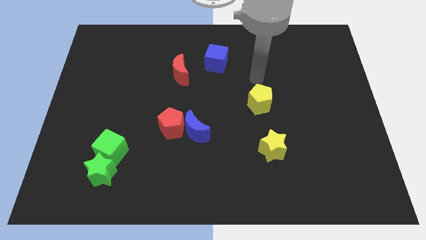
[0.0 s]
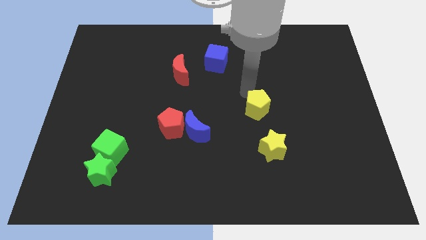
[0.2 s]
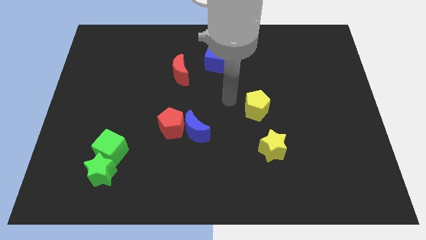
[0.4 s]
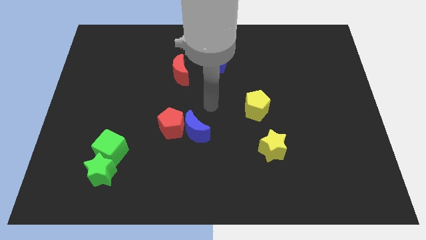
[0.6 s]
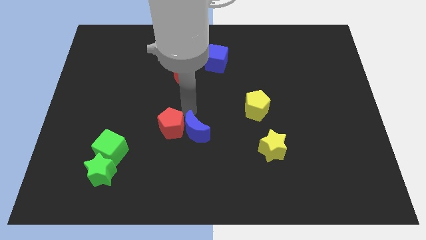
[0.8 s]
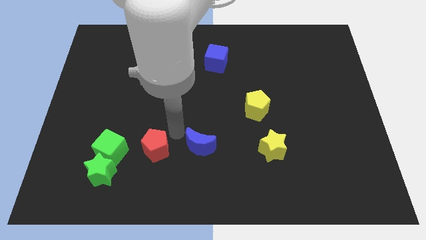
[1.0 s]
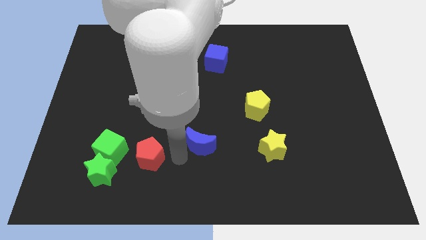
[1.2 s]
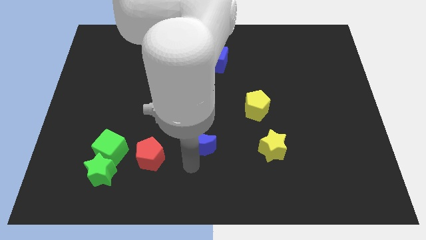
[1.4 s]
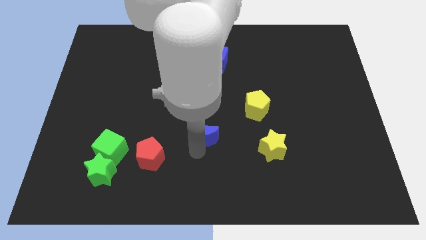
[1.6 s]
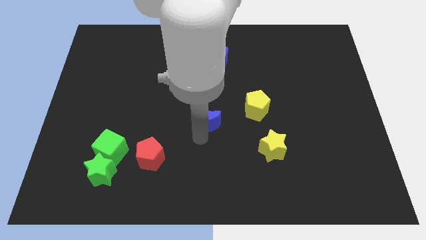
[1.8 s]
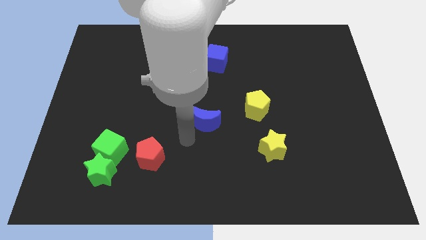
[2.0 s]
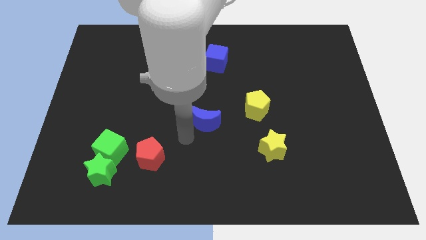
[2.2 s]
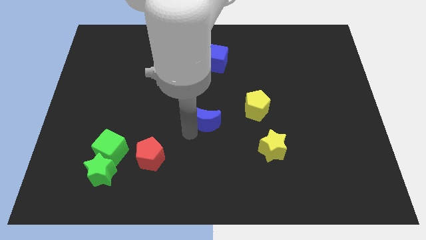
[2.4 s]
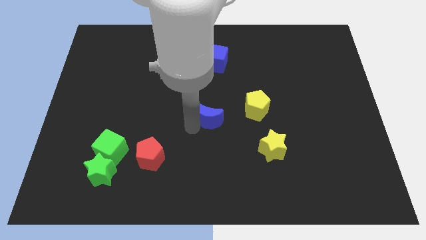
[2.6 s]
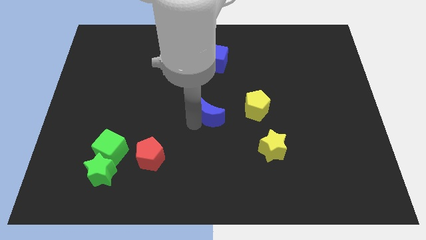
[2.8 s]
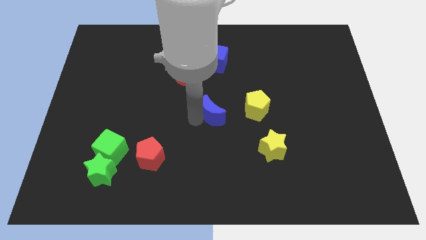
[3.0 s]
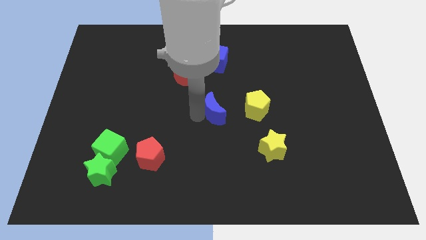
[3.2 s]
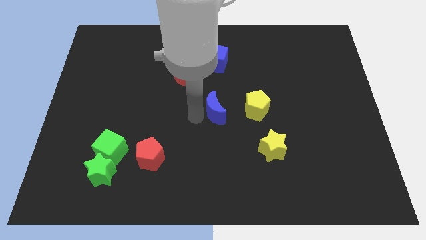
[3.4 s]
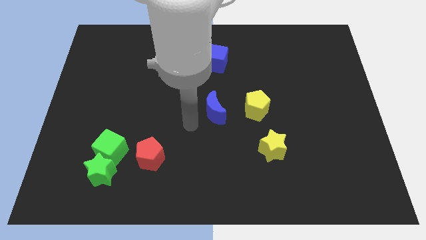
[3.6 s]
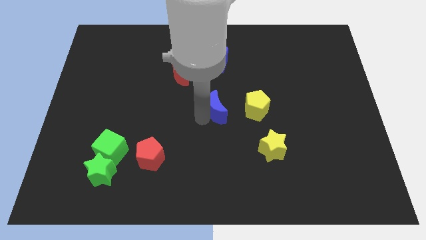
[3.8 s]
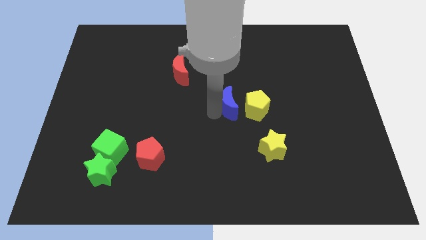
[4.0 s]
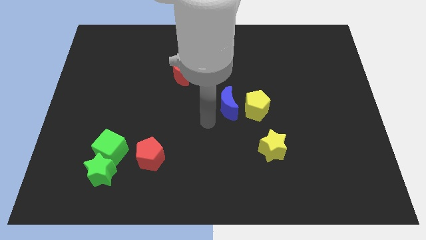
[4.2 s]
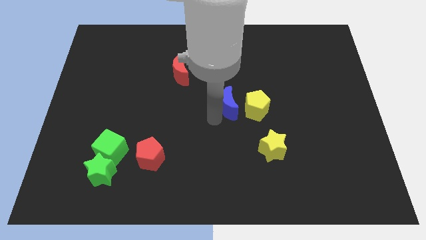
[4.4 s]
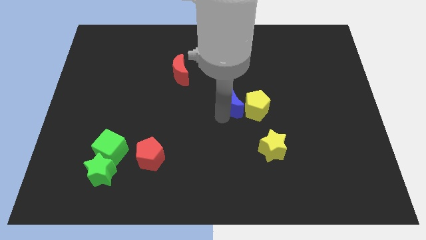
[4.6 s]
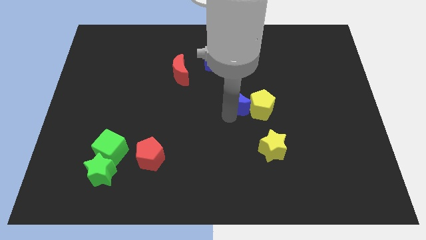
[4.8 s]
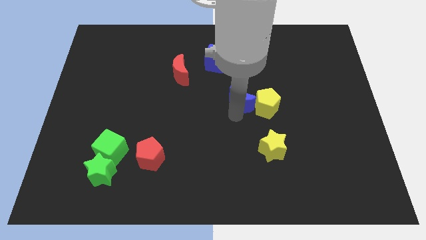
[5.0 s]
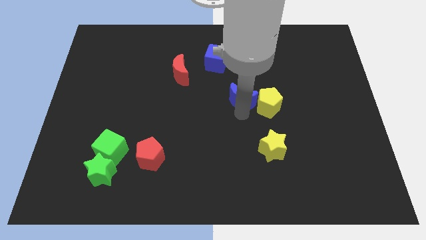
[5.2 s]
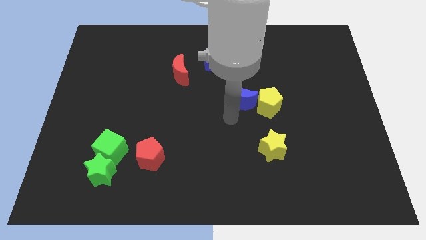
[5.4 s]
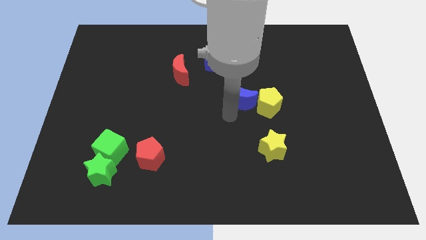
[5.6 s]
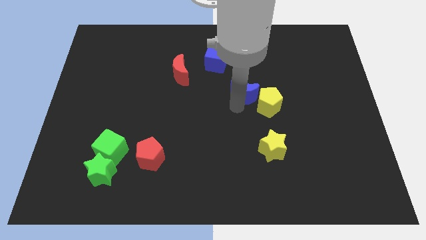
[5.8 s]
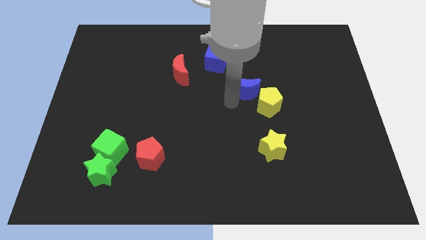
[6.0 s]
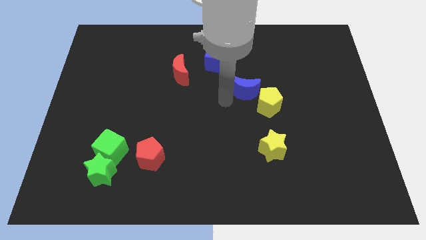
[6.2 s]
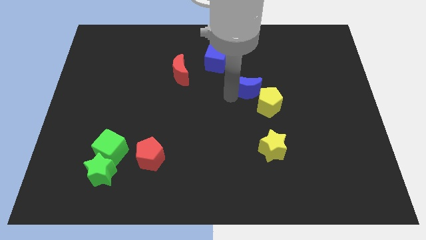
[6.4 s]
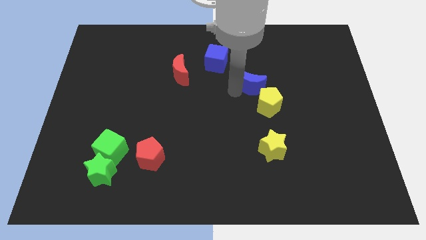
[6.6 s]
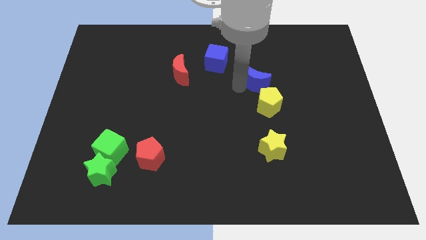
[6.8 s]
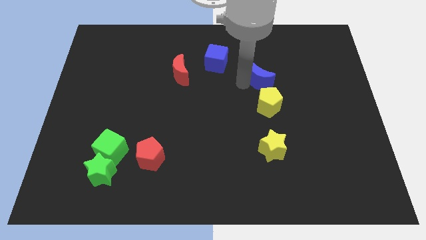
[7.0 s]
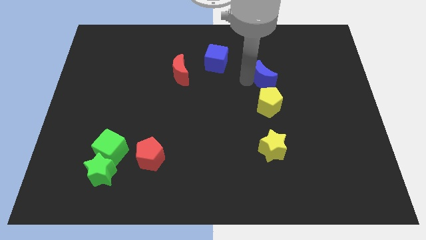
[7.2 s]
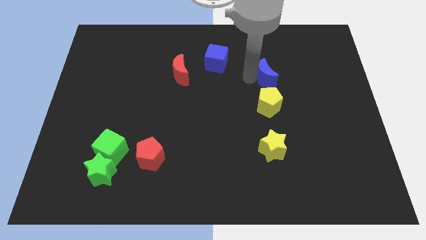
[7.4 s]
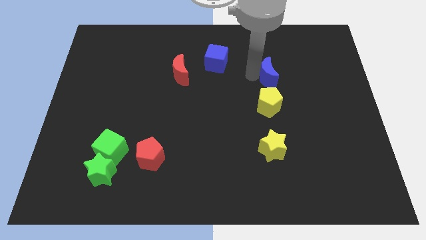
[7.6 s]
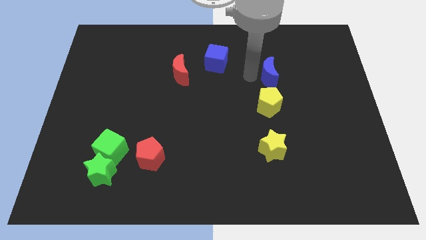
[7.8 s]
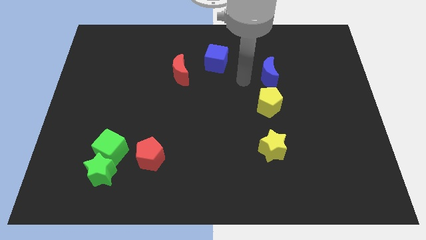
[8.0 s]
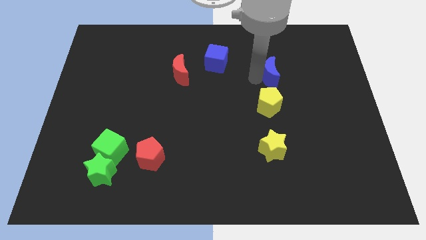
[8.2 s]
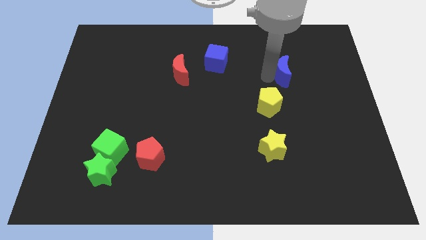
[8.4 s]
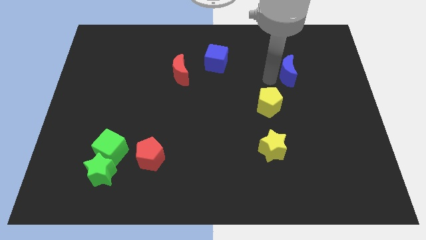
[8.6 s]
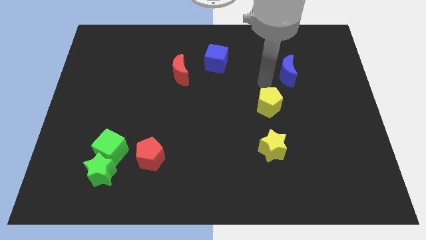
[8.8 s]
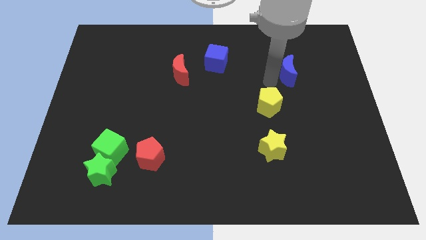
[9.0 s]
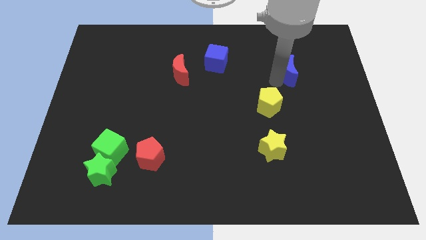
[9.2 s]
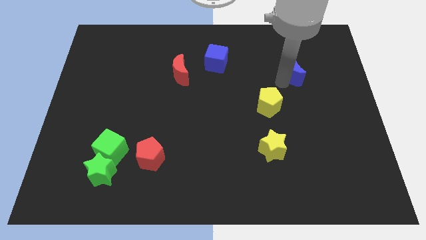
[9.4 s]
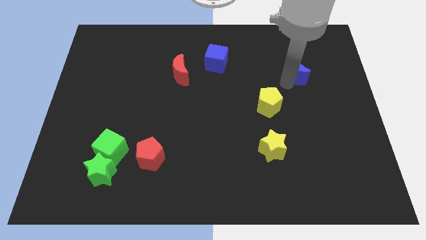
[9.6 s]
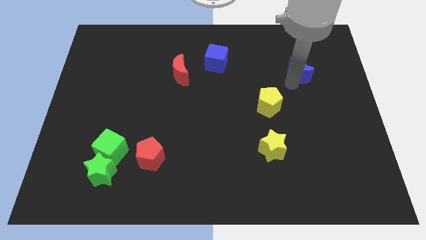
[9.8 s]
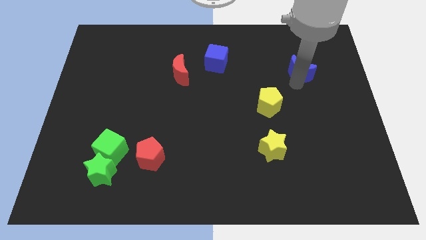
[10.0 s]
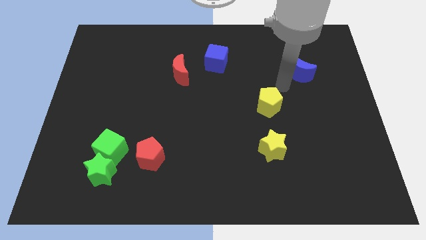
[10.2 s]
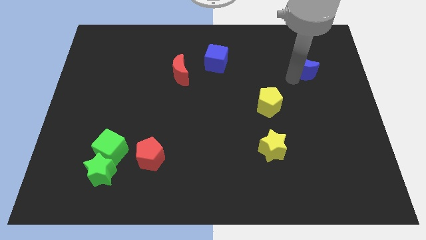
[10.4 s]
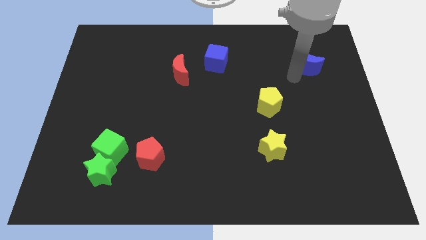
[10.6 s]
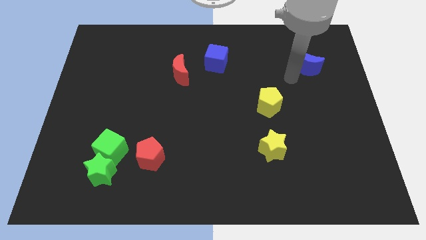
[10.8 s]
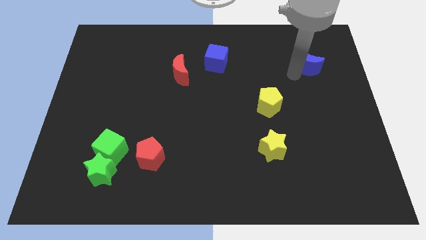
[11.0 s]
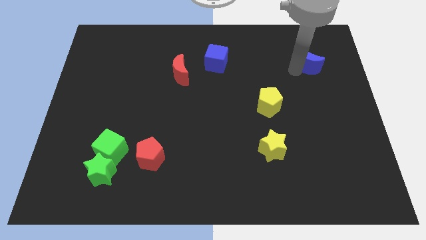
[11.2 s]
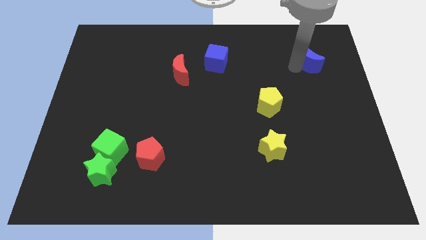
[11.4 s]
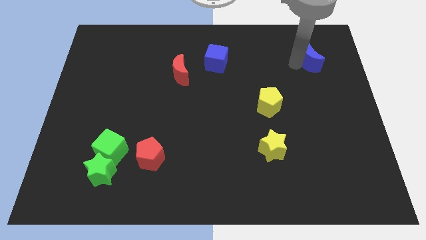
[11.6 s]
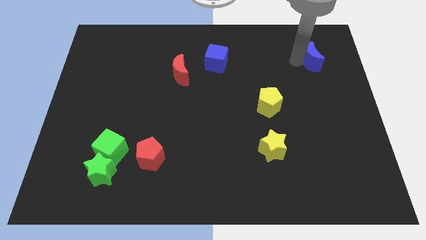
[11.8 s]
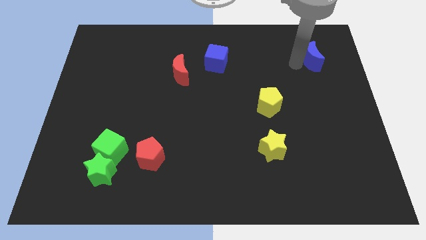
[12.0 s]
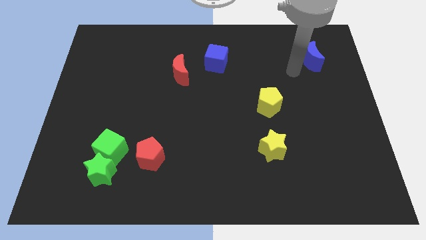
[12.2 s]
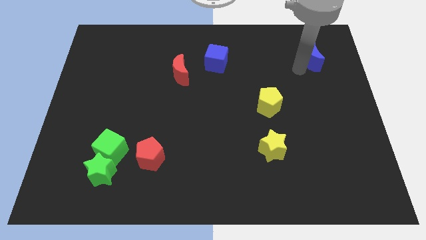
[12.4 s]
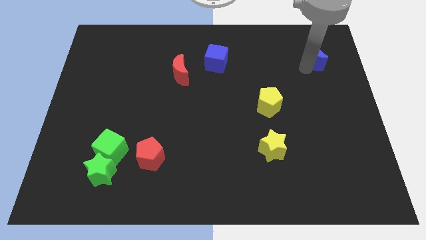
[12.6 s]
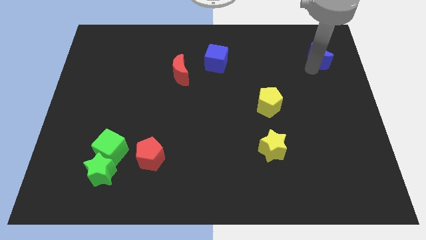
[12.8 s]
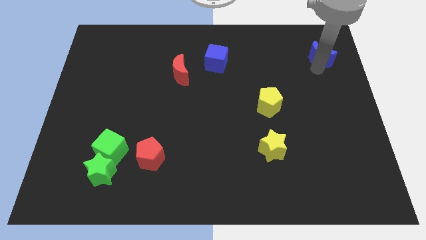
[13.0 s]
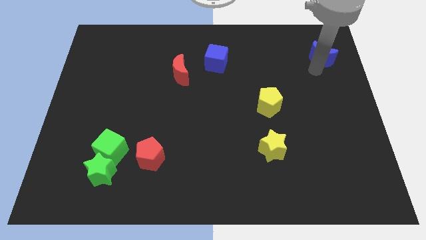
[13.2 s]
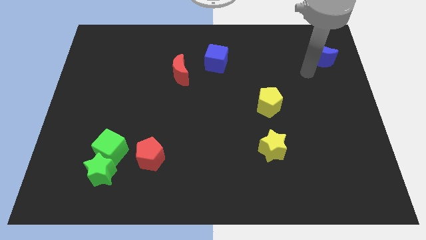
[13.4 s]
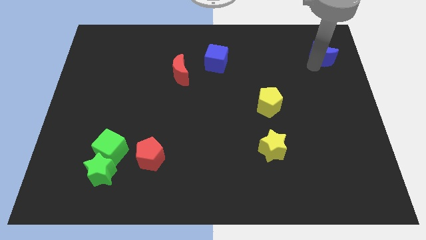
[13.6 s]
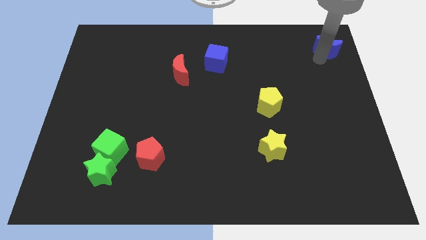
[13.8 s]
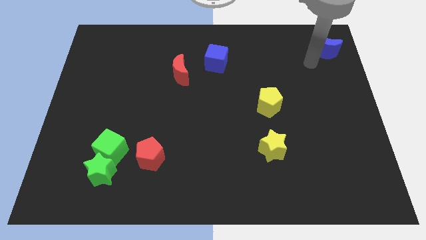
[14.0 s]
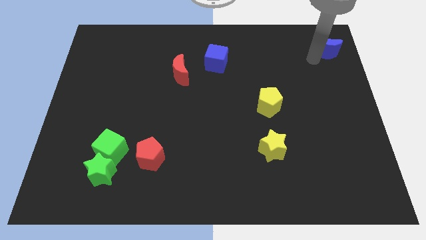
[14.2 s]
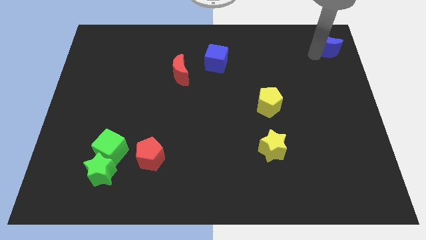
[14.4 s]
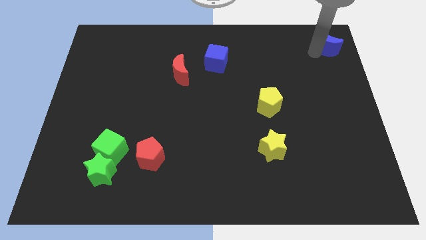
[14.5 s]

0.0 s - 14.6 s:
put the blue moon to the top right corner
